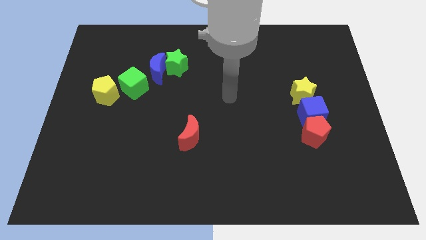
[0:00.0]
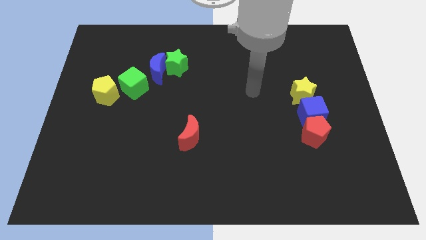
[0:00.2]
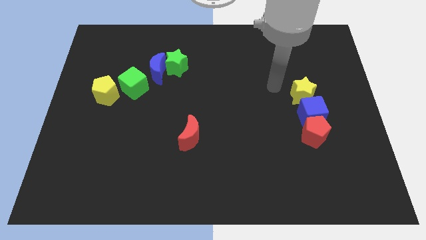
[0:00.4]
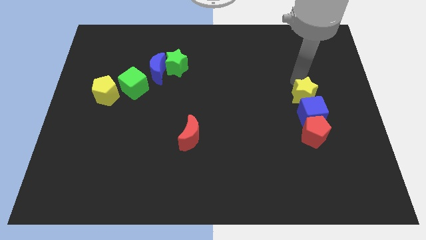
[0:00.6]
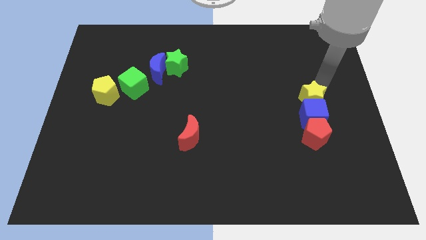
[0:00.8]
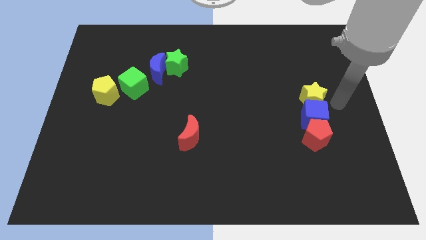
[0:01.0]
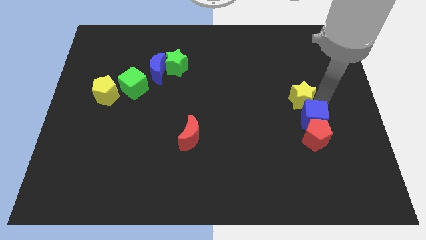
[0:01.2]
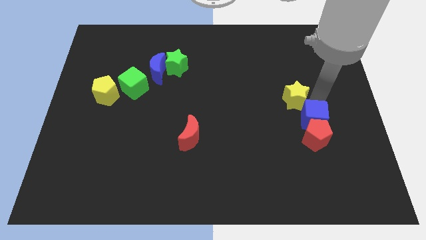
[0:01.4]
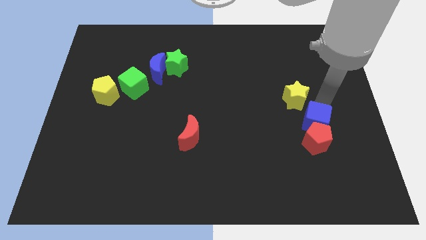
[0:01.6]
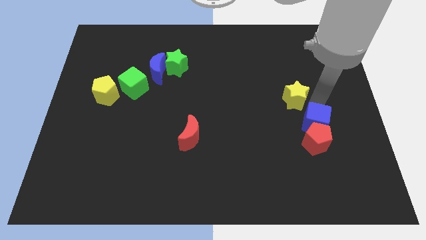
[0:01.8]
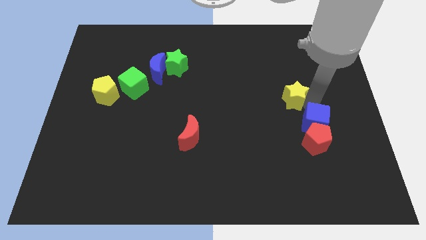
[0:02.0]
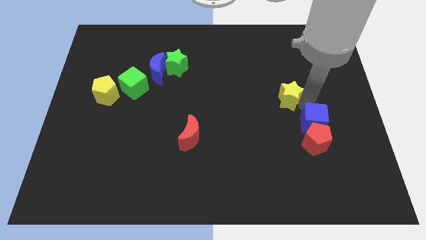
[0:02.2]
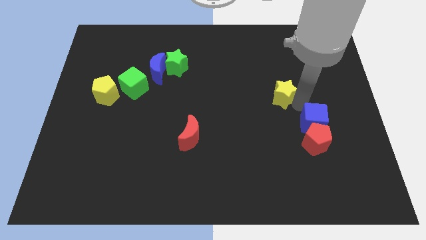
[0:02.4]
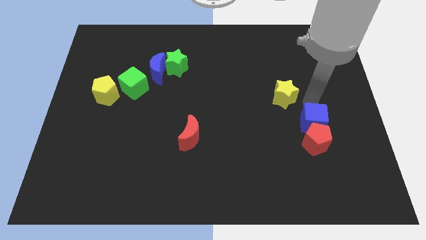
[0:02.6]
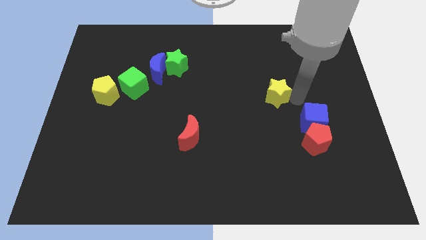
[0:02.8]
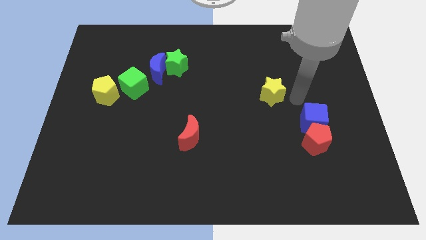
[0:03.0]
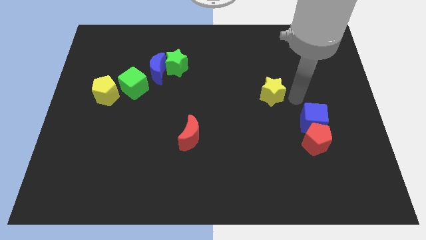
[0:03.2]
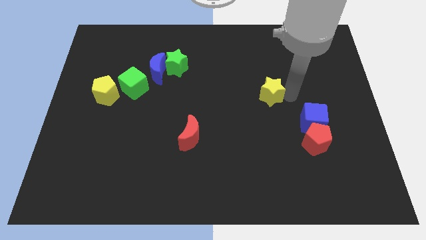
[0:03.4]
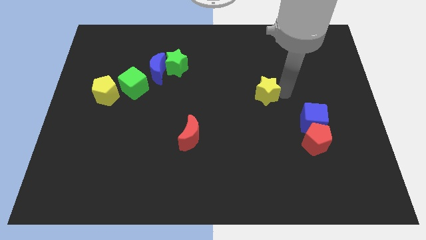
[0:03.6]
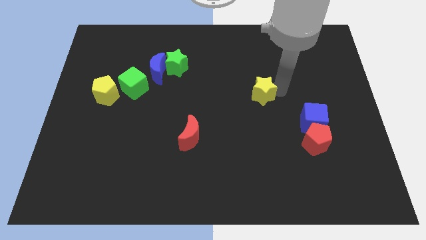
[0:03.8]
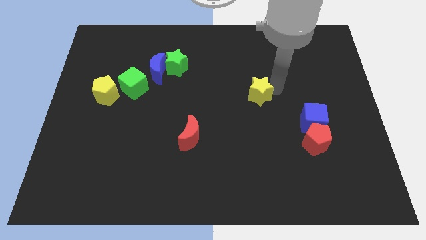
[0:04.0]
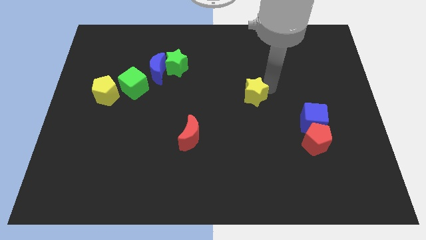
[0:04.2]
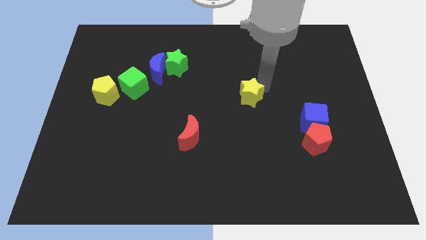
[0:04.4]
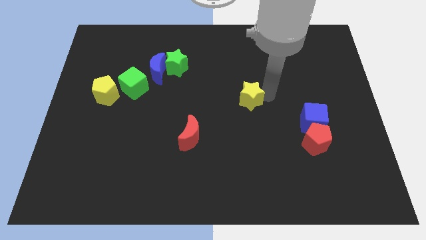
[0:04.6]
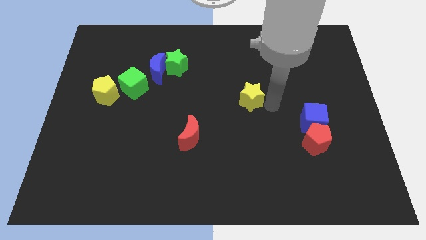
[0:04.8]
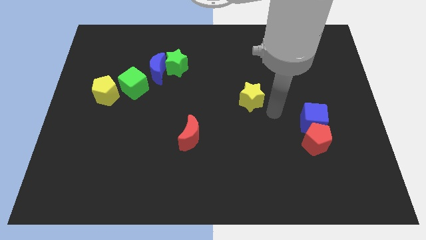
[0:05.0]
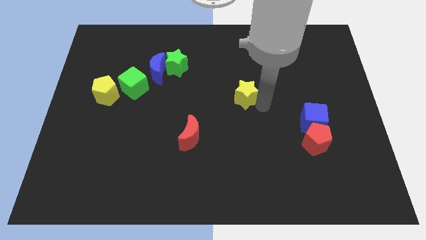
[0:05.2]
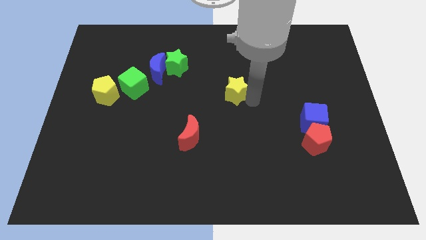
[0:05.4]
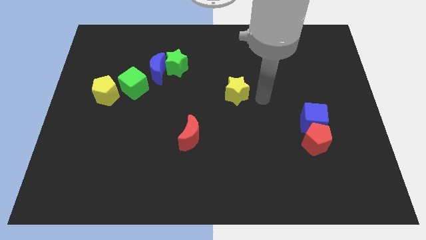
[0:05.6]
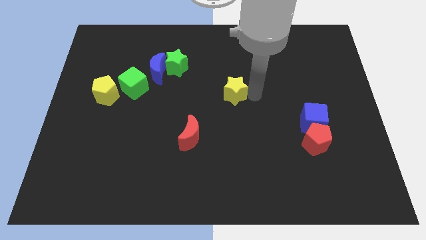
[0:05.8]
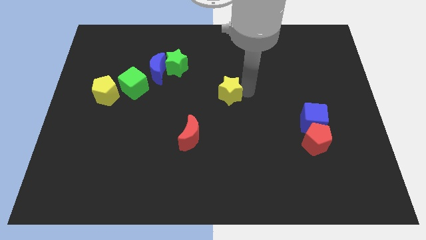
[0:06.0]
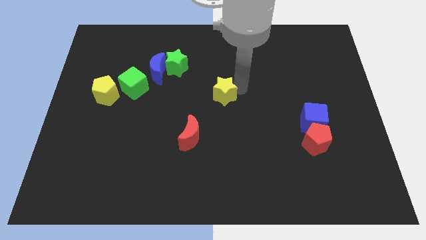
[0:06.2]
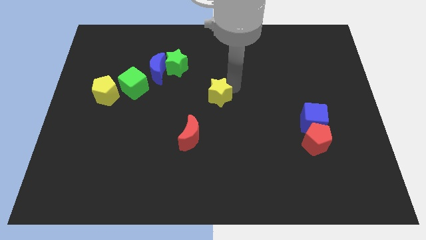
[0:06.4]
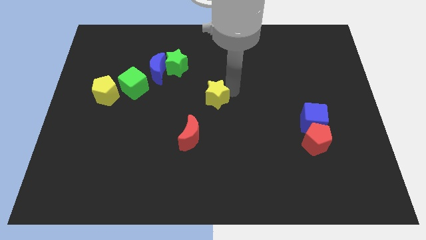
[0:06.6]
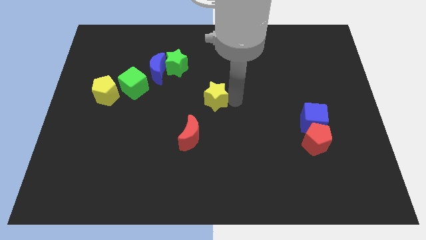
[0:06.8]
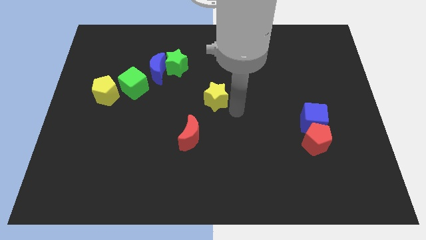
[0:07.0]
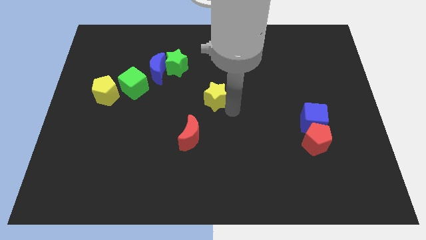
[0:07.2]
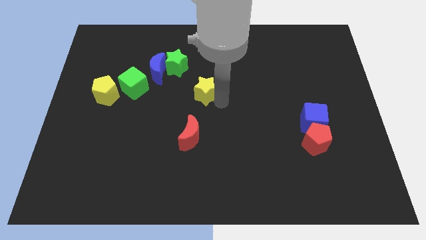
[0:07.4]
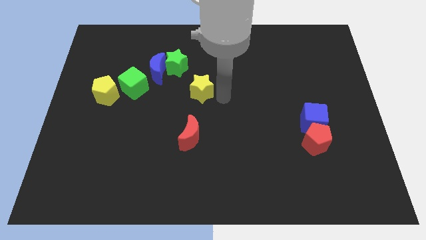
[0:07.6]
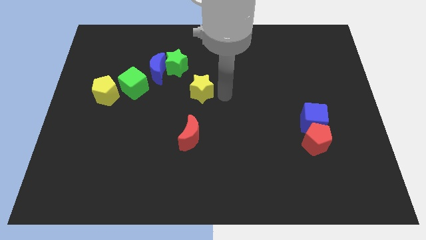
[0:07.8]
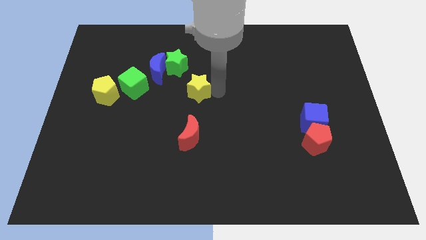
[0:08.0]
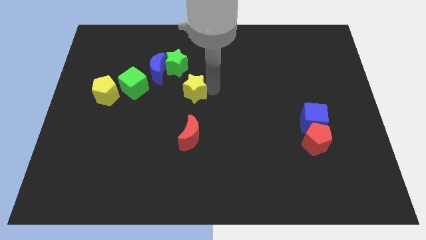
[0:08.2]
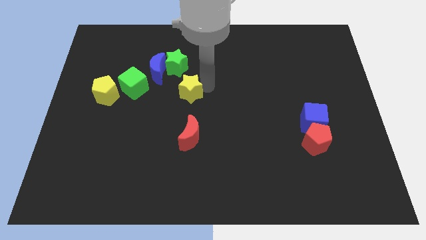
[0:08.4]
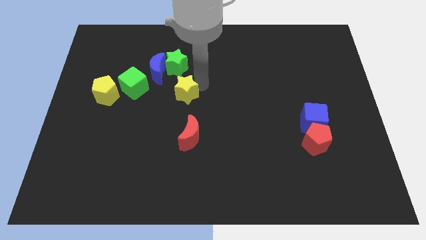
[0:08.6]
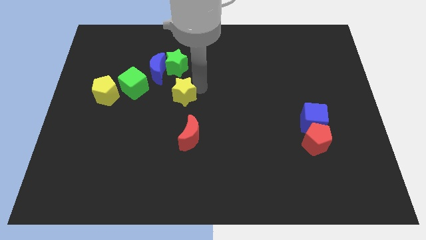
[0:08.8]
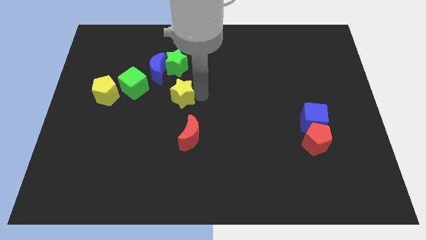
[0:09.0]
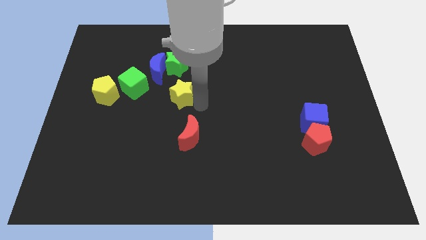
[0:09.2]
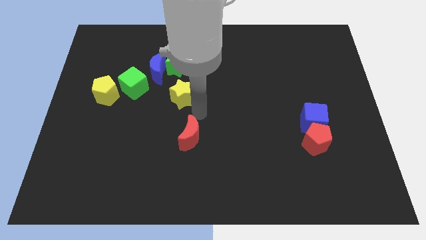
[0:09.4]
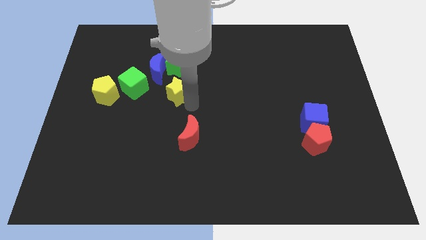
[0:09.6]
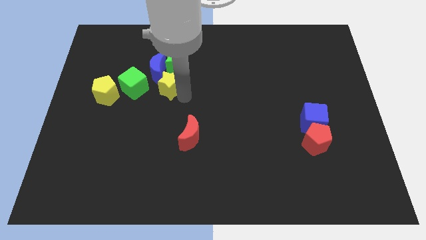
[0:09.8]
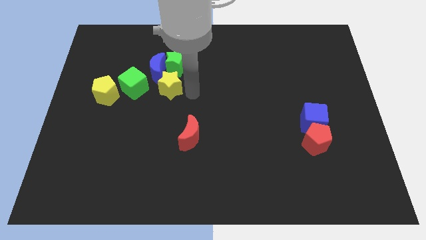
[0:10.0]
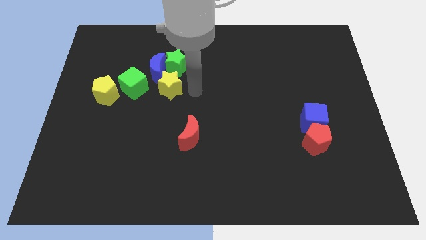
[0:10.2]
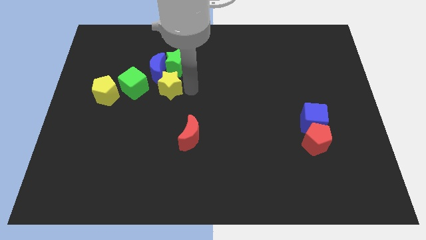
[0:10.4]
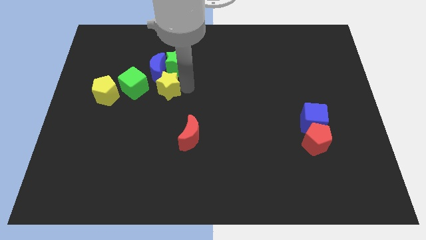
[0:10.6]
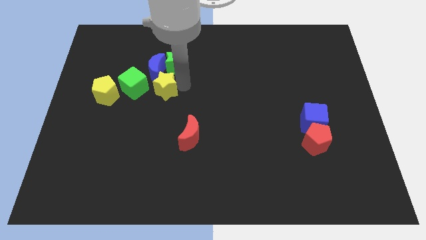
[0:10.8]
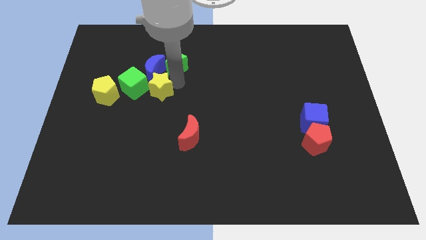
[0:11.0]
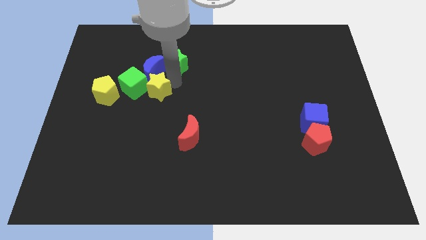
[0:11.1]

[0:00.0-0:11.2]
push the yellow star to the green cube

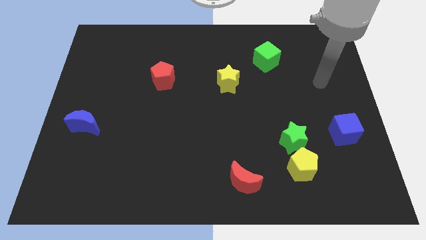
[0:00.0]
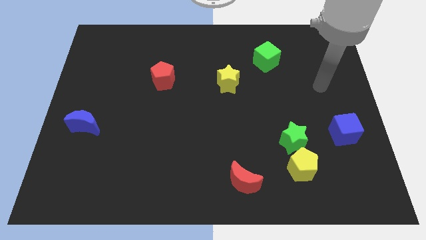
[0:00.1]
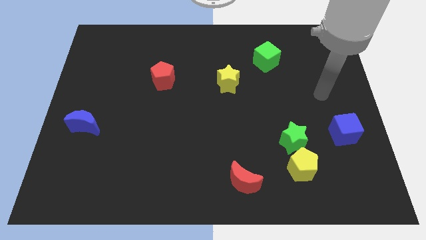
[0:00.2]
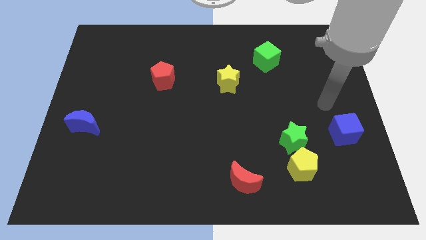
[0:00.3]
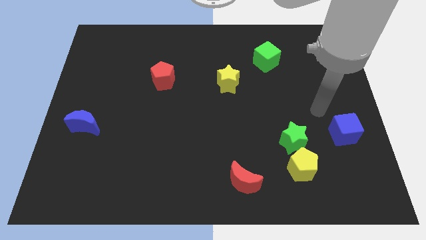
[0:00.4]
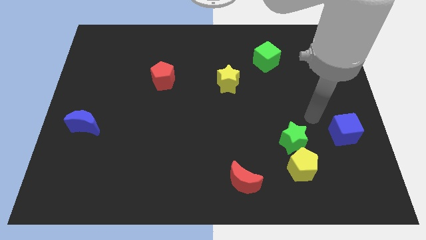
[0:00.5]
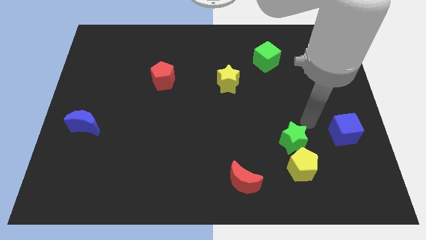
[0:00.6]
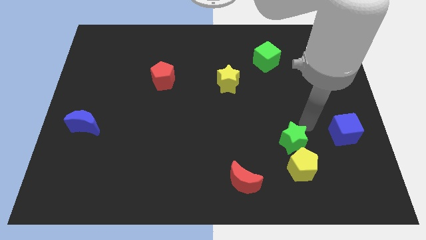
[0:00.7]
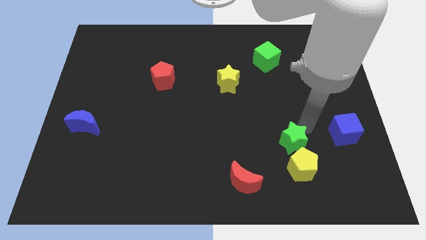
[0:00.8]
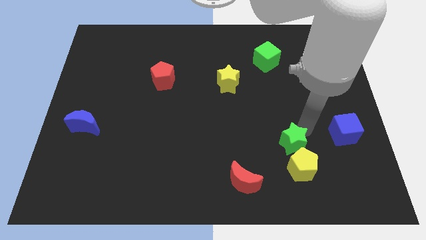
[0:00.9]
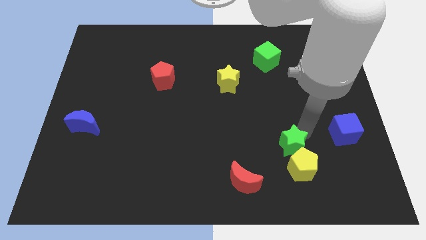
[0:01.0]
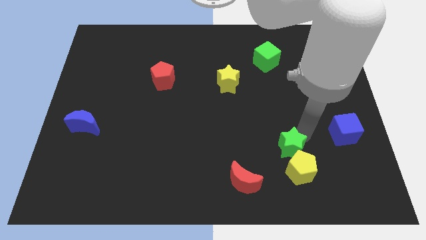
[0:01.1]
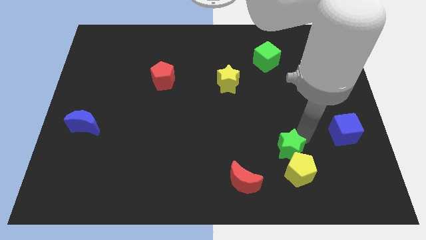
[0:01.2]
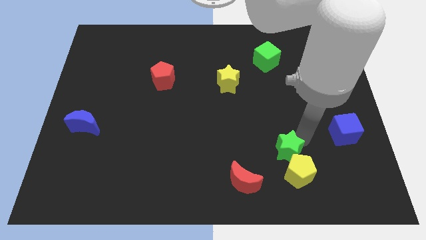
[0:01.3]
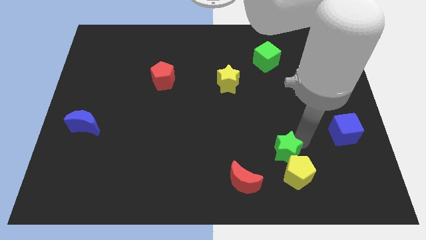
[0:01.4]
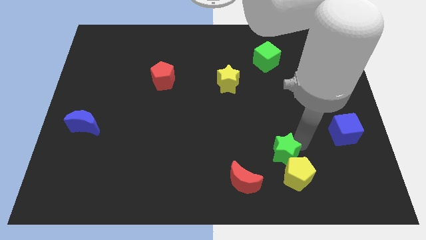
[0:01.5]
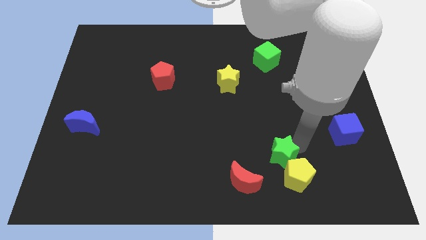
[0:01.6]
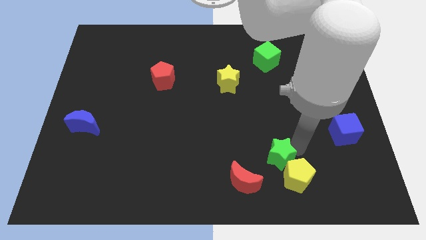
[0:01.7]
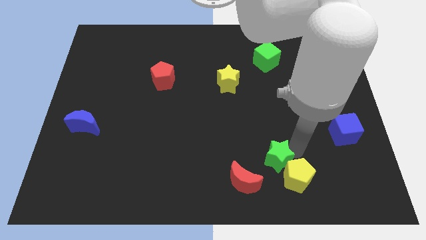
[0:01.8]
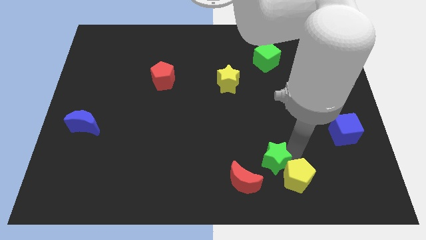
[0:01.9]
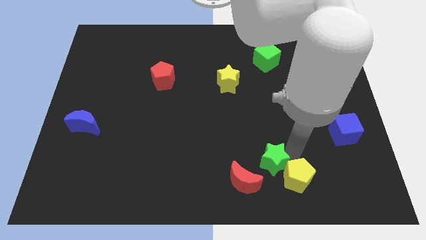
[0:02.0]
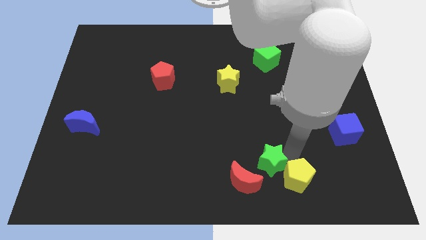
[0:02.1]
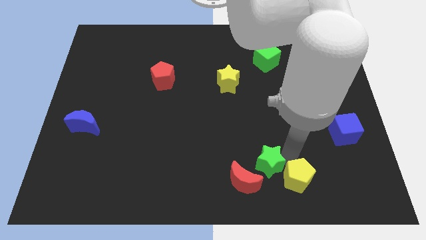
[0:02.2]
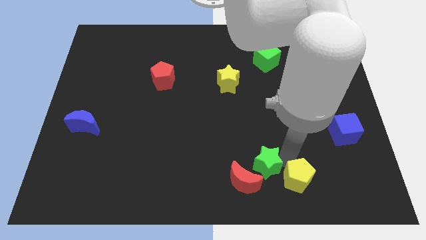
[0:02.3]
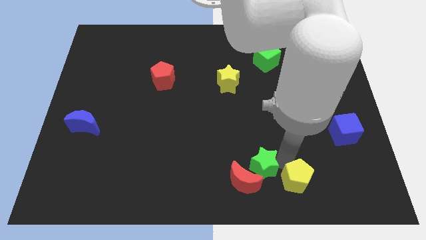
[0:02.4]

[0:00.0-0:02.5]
push the green star close to the red moon
